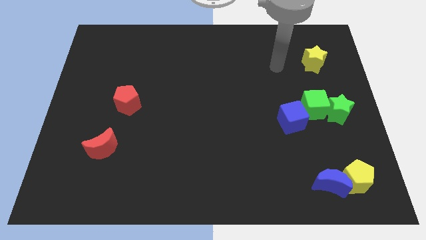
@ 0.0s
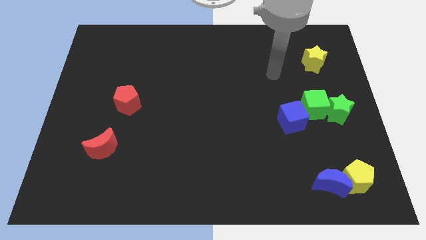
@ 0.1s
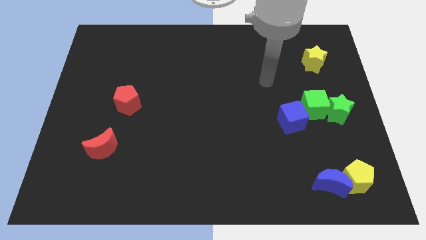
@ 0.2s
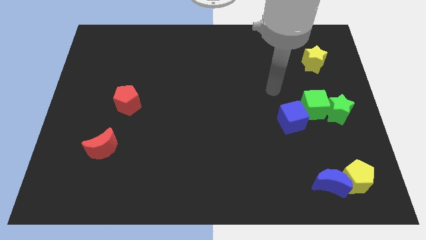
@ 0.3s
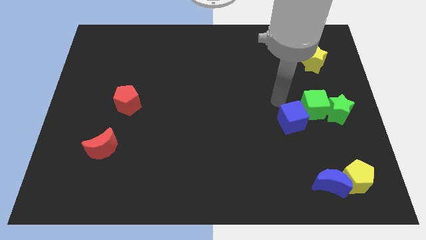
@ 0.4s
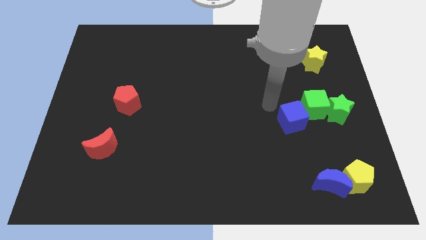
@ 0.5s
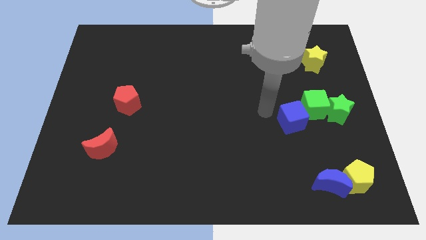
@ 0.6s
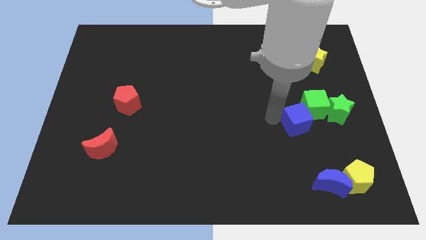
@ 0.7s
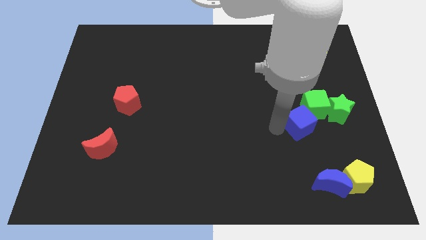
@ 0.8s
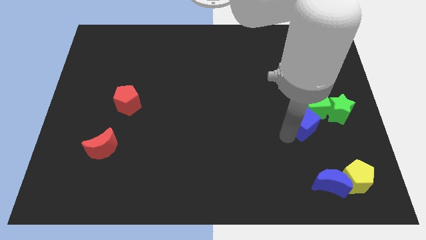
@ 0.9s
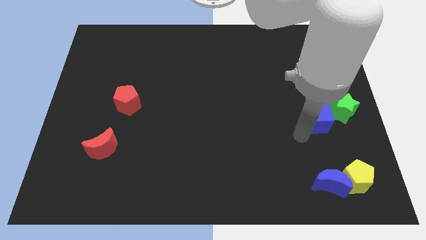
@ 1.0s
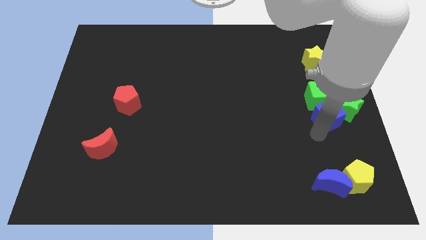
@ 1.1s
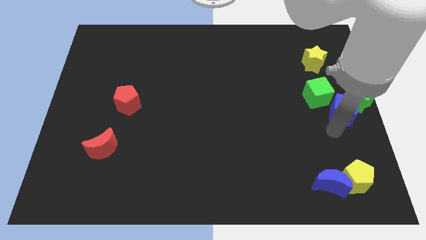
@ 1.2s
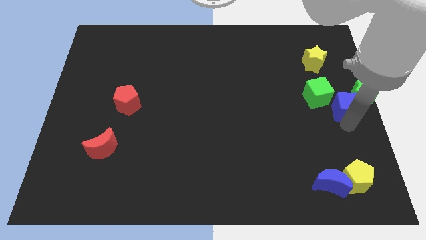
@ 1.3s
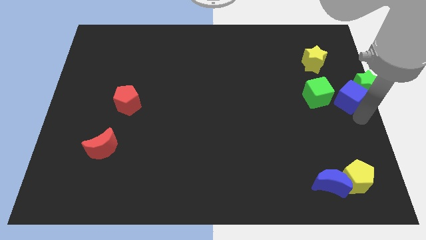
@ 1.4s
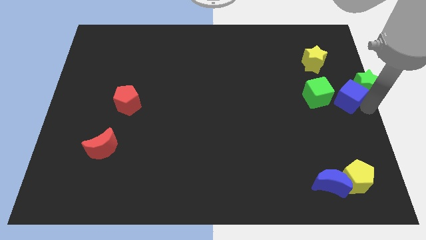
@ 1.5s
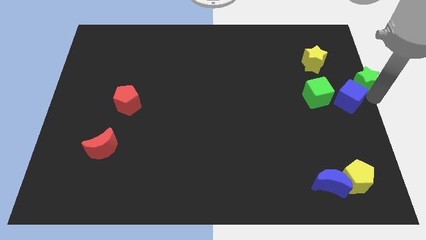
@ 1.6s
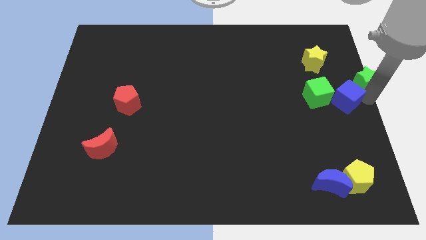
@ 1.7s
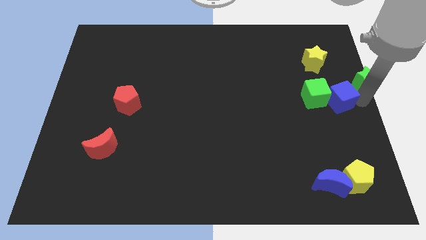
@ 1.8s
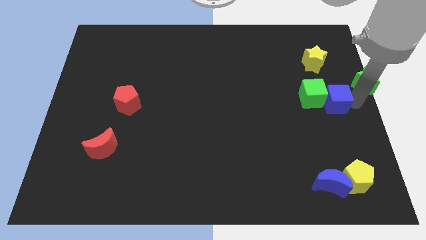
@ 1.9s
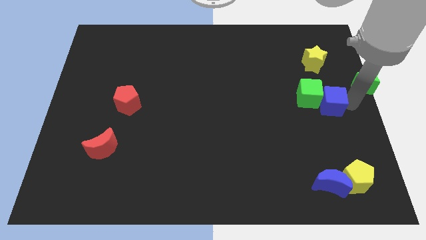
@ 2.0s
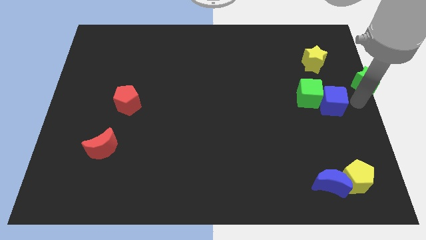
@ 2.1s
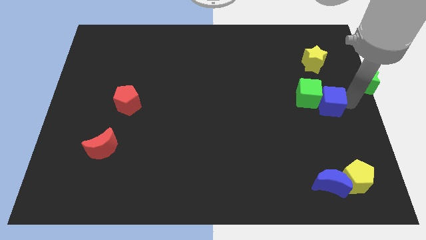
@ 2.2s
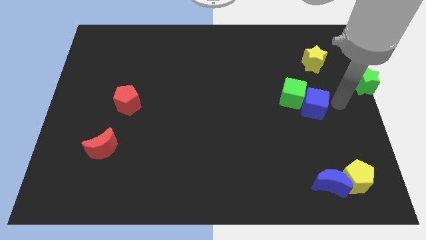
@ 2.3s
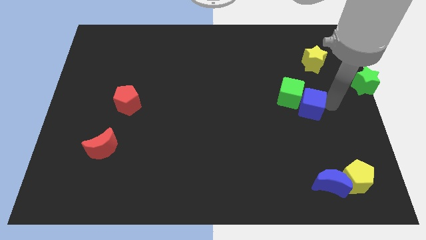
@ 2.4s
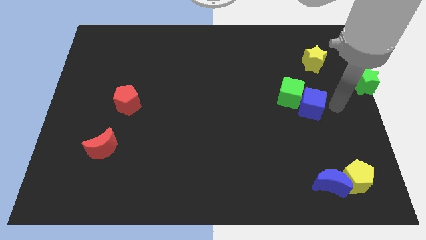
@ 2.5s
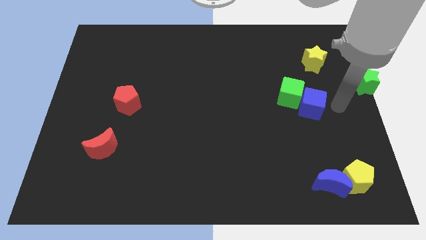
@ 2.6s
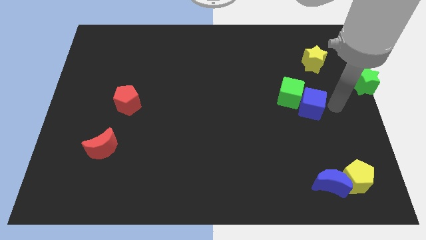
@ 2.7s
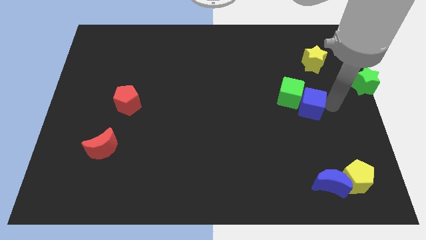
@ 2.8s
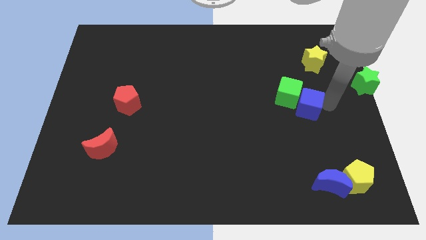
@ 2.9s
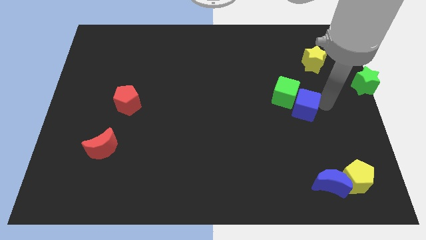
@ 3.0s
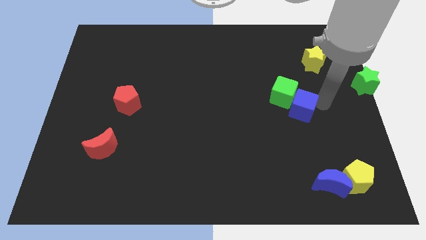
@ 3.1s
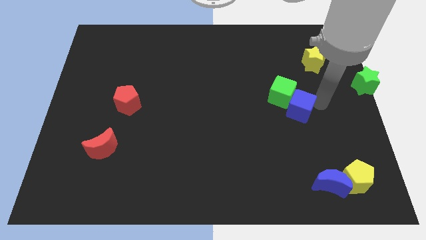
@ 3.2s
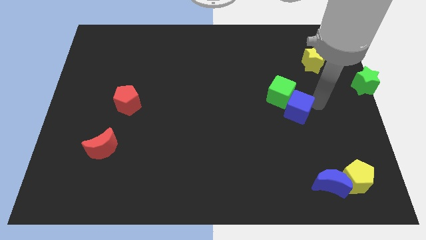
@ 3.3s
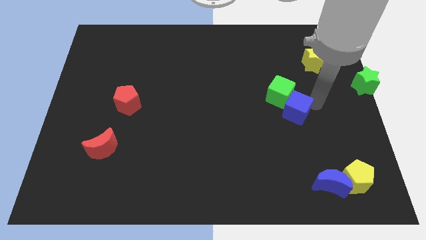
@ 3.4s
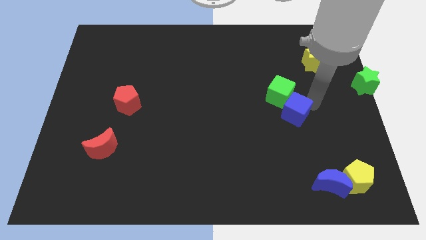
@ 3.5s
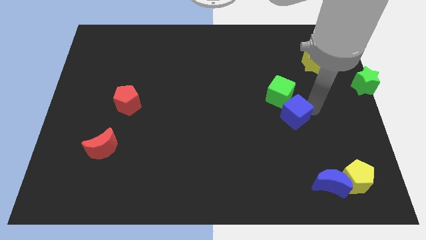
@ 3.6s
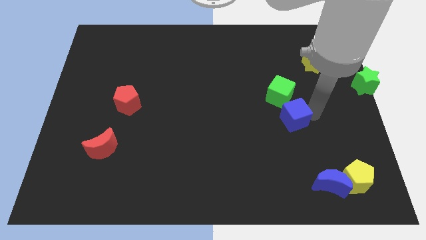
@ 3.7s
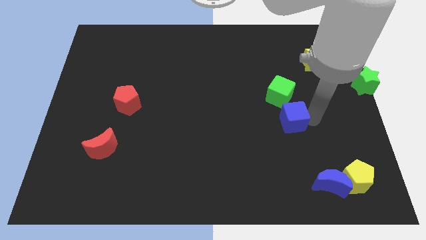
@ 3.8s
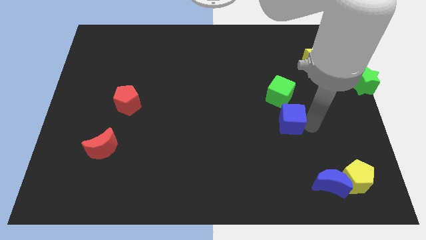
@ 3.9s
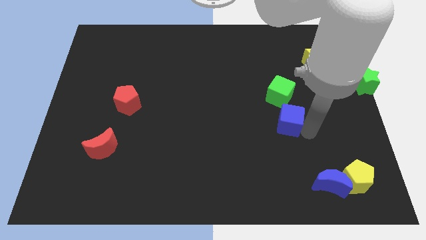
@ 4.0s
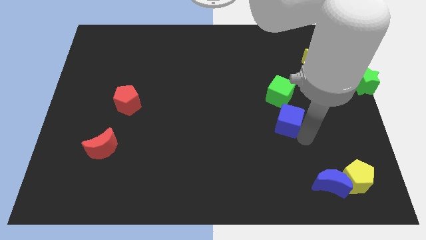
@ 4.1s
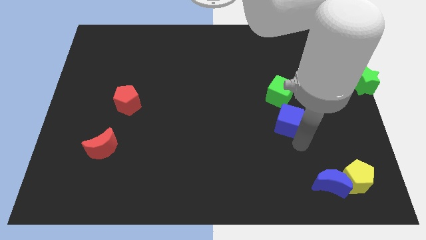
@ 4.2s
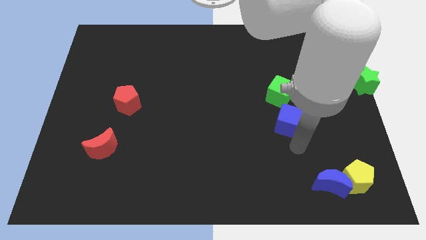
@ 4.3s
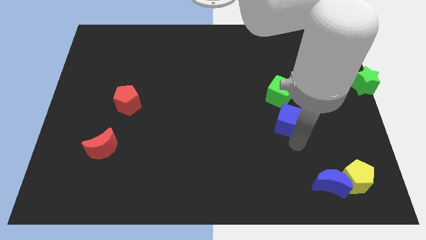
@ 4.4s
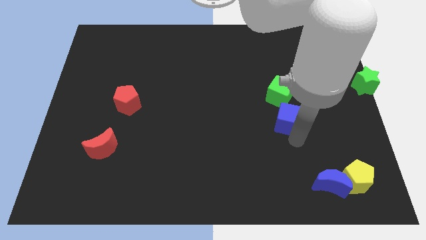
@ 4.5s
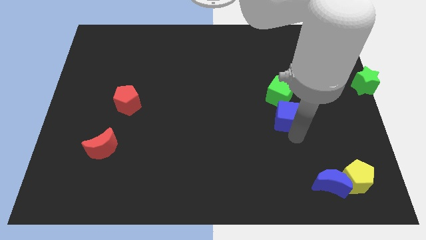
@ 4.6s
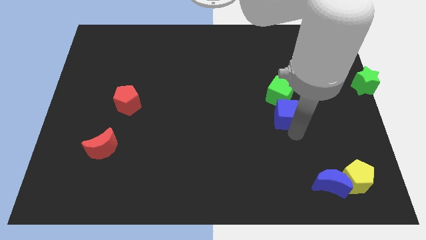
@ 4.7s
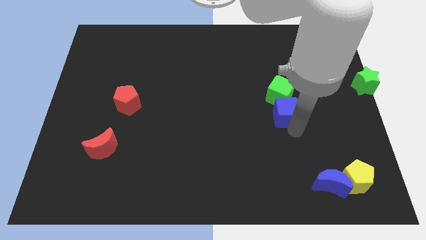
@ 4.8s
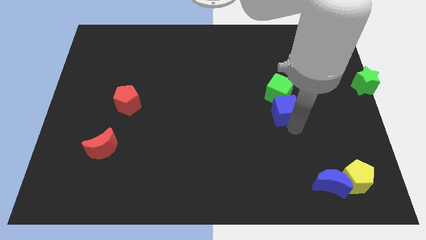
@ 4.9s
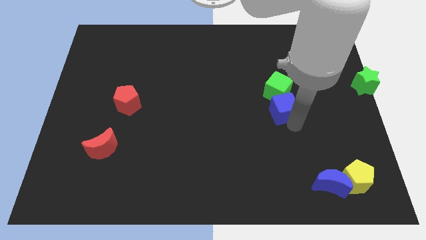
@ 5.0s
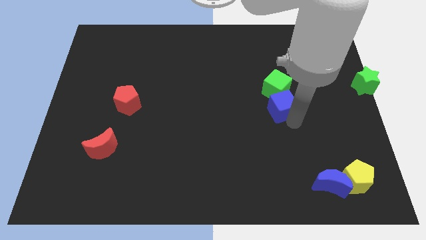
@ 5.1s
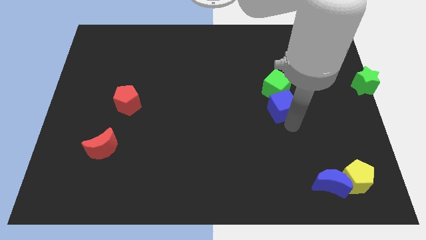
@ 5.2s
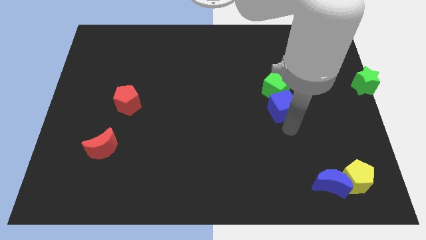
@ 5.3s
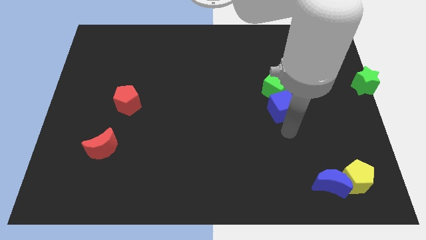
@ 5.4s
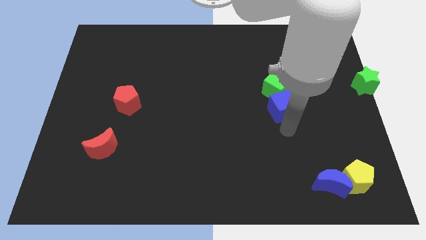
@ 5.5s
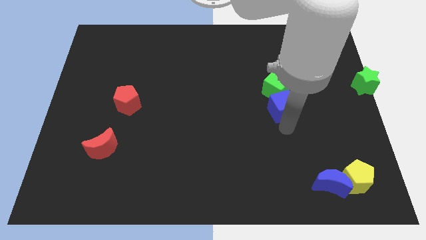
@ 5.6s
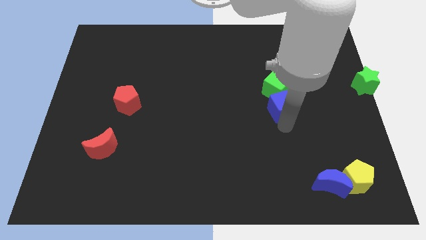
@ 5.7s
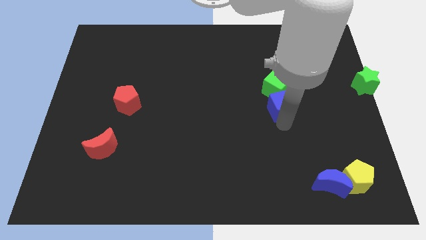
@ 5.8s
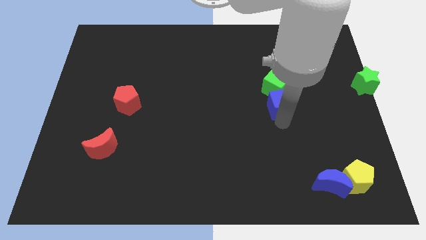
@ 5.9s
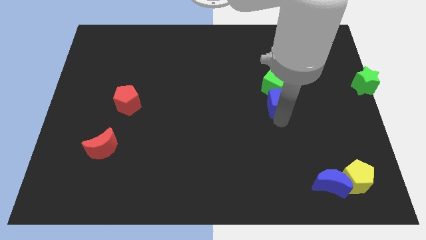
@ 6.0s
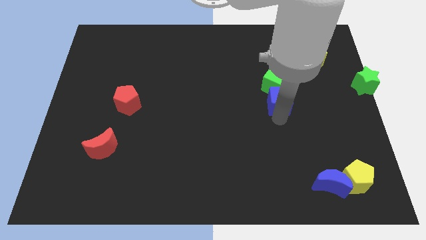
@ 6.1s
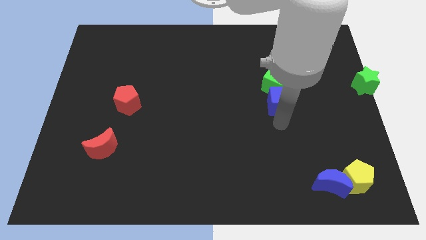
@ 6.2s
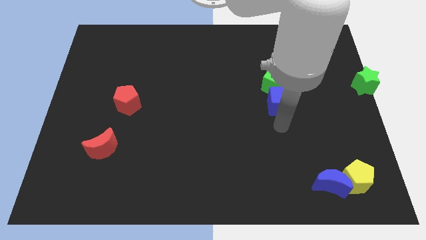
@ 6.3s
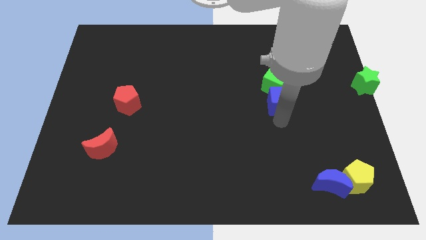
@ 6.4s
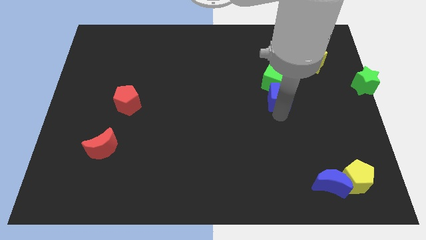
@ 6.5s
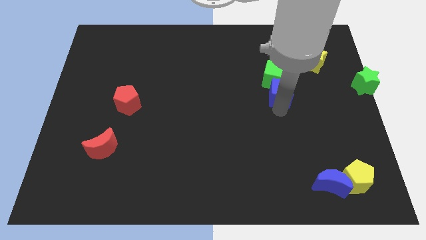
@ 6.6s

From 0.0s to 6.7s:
push the blue cube slightly upwards

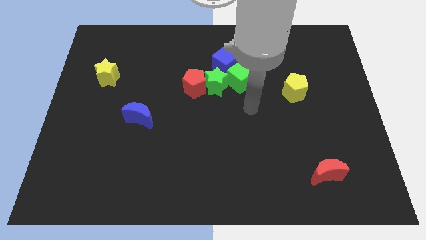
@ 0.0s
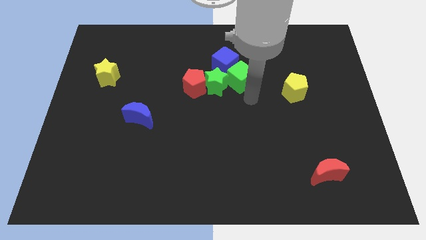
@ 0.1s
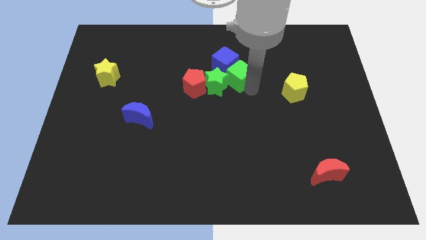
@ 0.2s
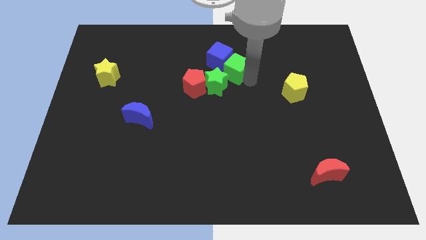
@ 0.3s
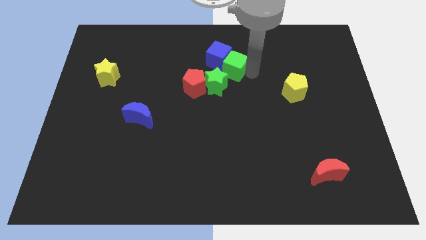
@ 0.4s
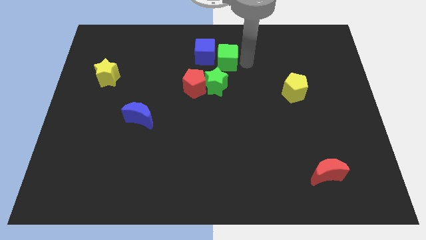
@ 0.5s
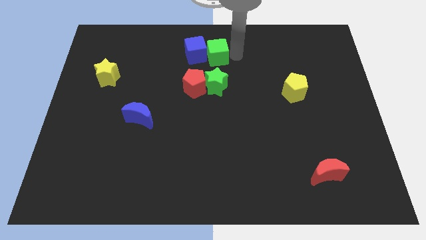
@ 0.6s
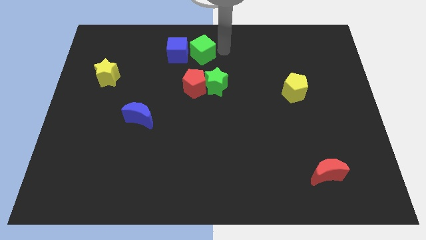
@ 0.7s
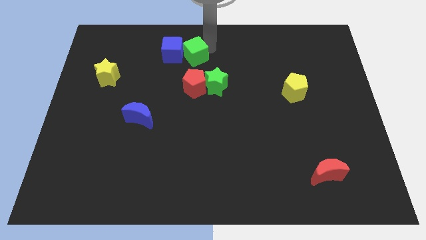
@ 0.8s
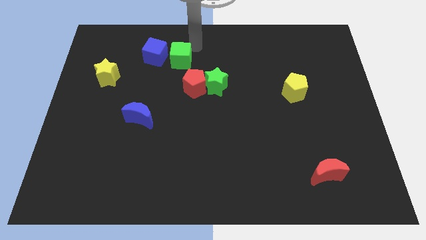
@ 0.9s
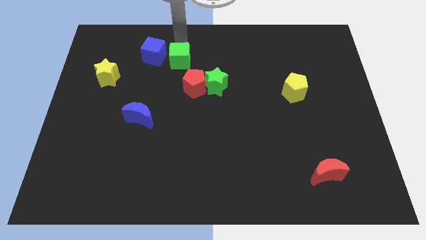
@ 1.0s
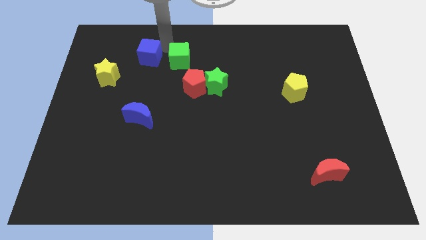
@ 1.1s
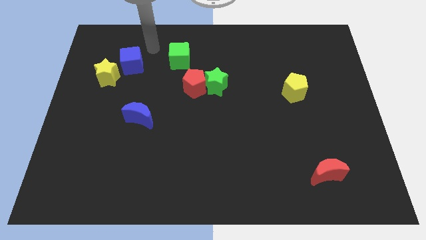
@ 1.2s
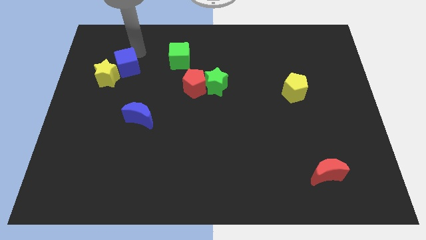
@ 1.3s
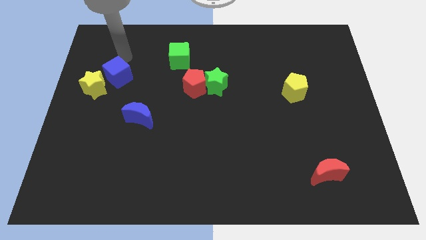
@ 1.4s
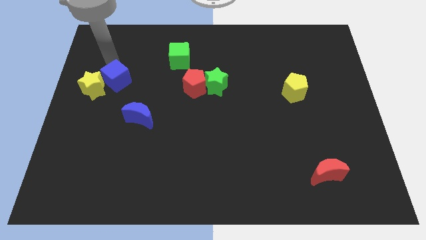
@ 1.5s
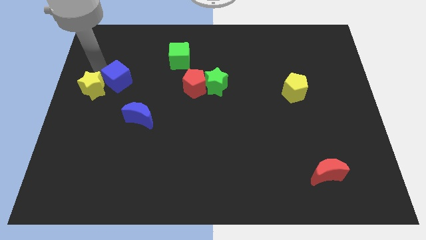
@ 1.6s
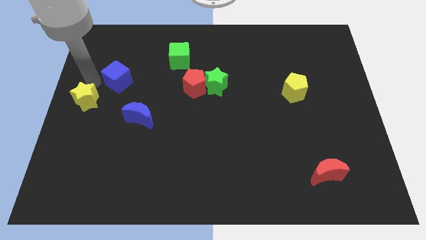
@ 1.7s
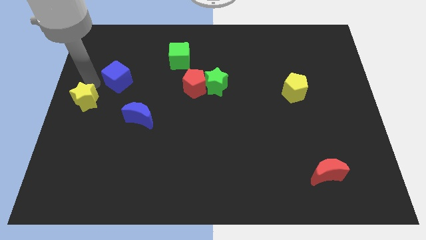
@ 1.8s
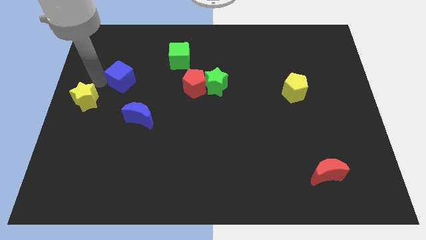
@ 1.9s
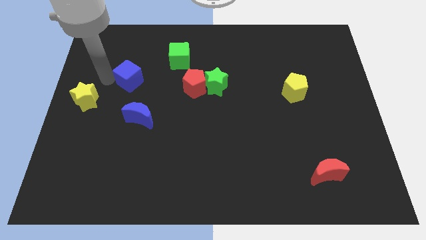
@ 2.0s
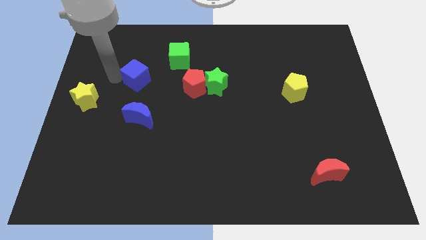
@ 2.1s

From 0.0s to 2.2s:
move the blue cube down and then to the left a bit
